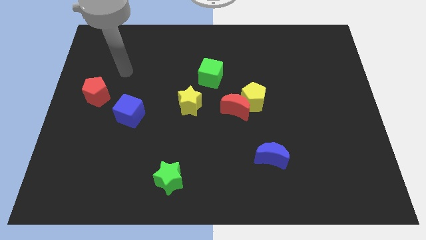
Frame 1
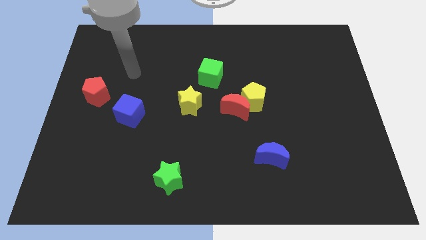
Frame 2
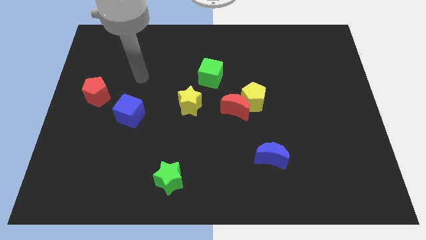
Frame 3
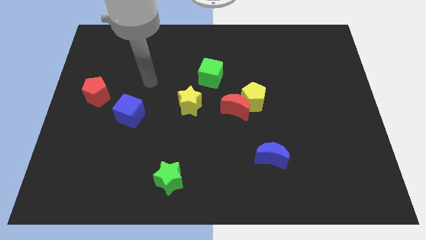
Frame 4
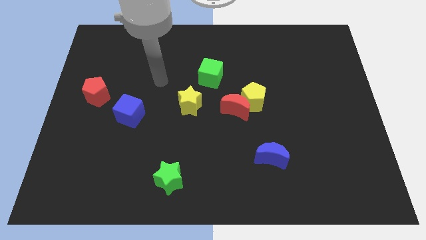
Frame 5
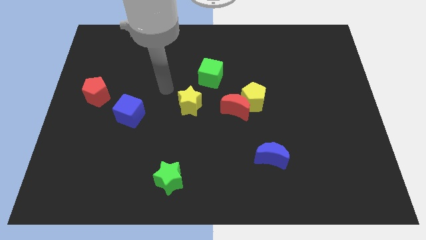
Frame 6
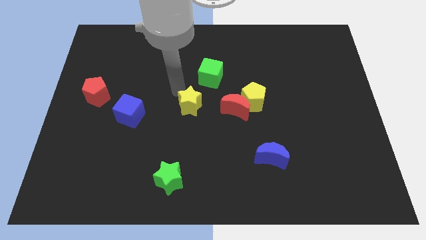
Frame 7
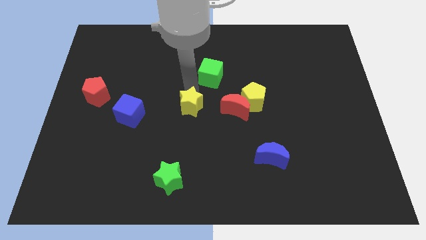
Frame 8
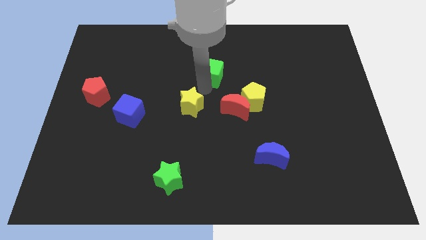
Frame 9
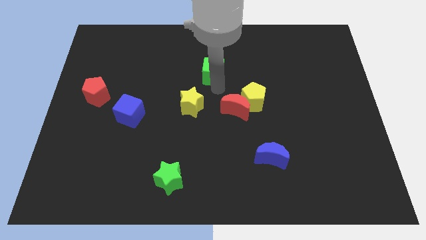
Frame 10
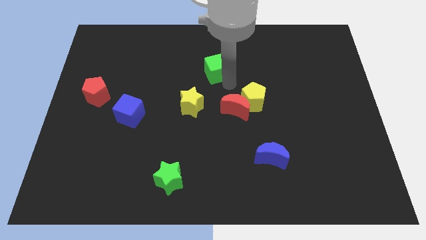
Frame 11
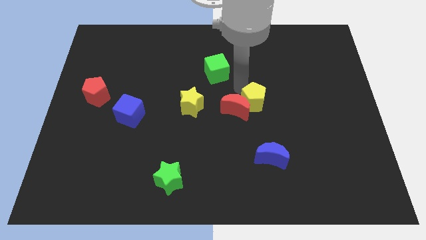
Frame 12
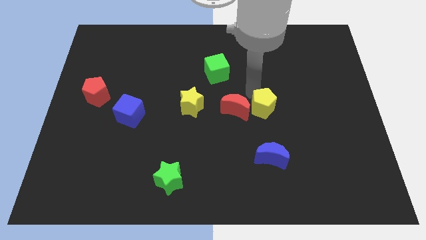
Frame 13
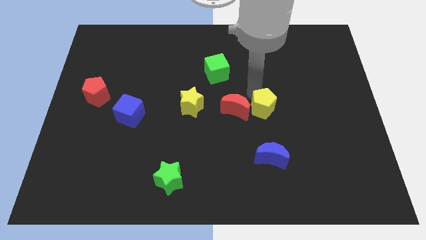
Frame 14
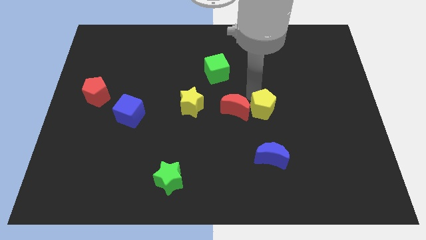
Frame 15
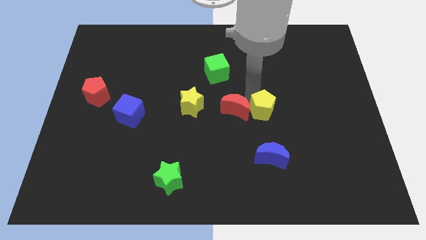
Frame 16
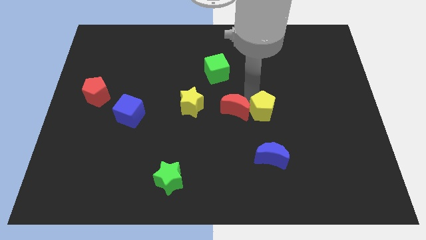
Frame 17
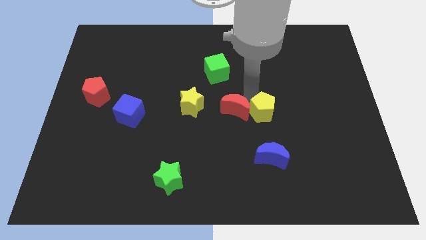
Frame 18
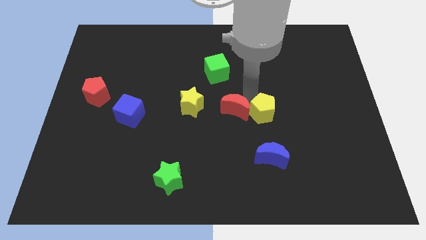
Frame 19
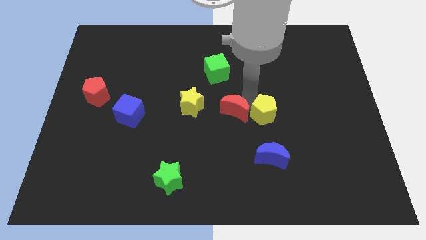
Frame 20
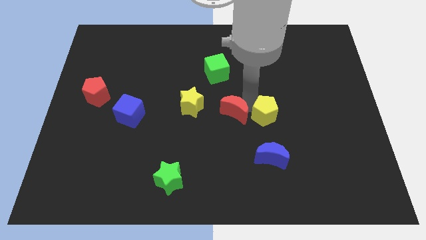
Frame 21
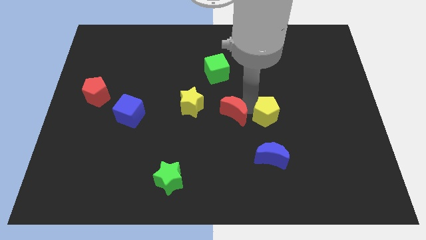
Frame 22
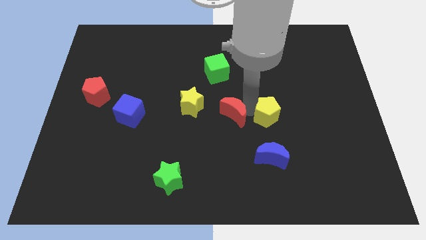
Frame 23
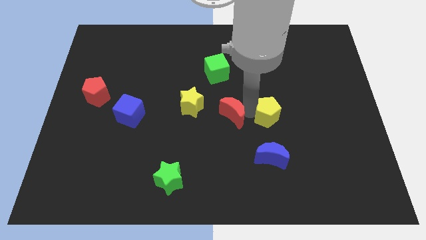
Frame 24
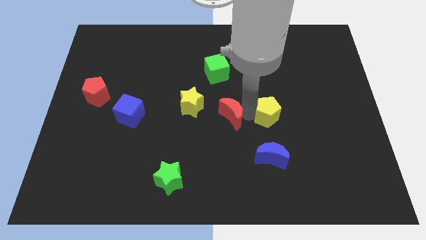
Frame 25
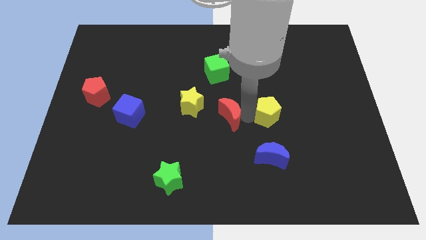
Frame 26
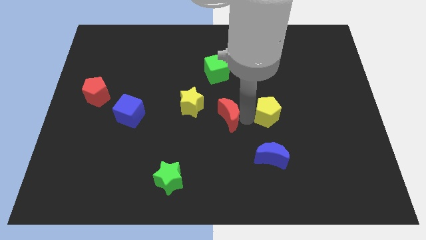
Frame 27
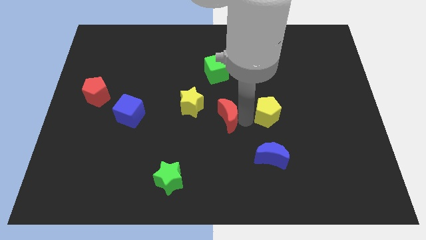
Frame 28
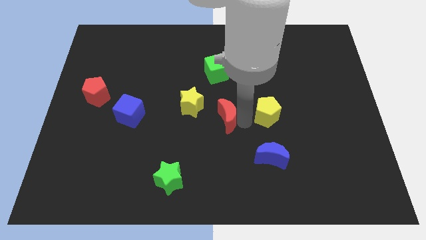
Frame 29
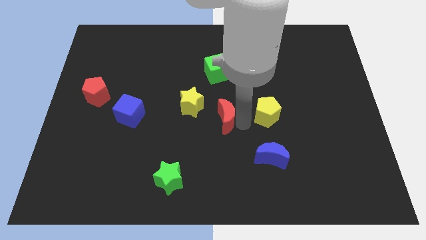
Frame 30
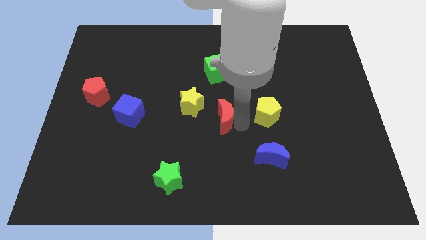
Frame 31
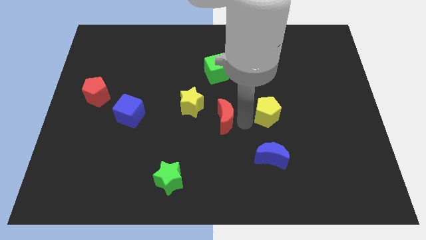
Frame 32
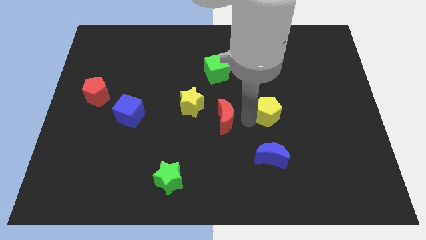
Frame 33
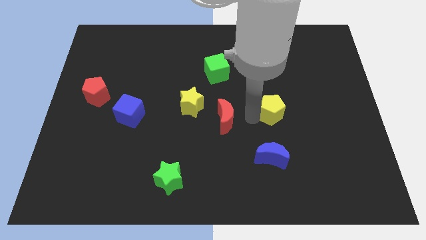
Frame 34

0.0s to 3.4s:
separate the red moon from the yellow pentagon

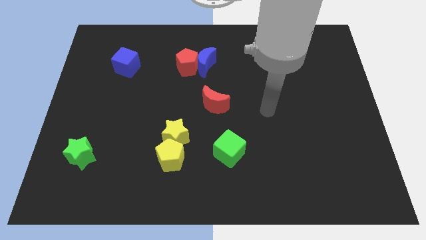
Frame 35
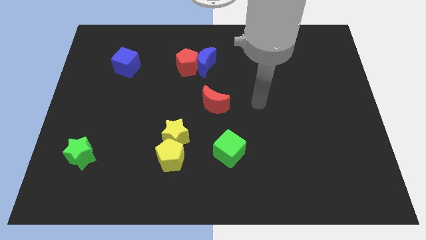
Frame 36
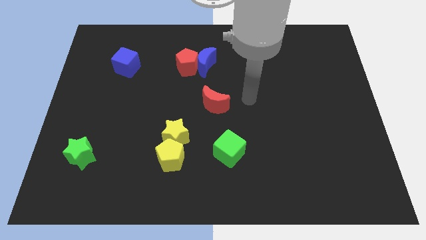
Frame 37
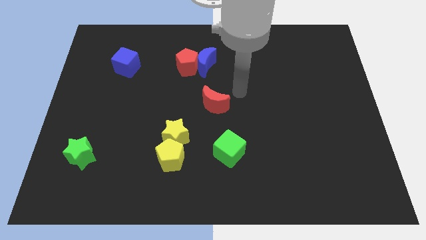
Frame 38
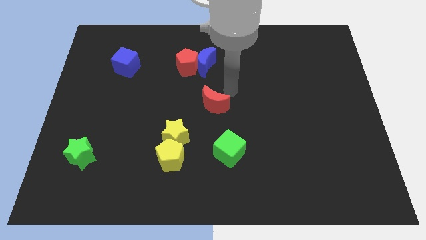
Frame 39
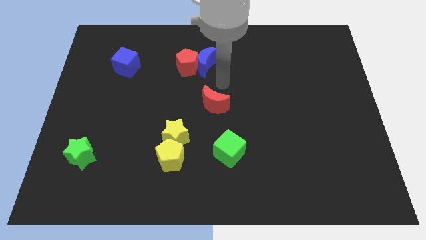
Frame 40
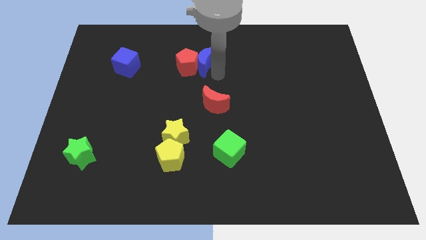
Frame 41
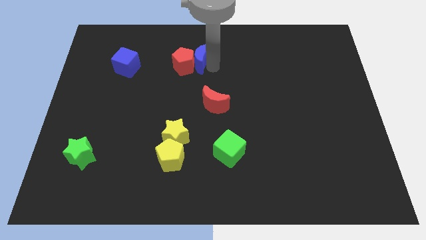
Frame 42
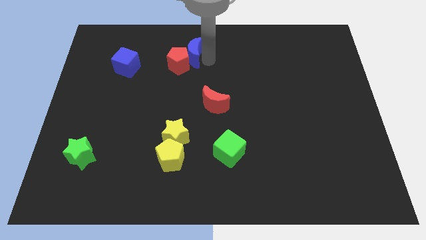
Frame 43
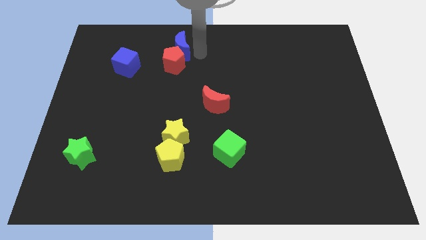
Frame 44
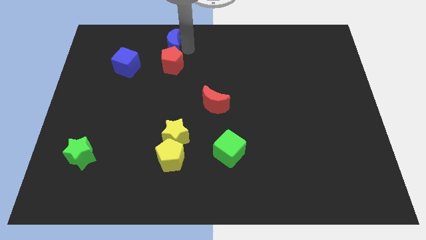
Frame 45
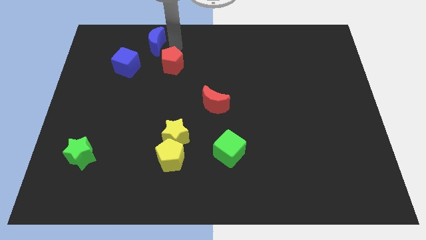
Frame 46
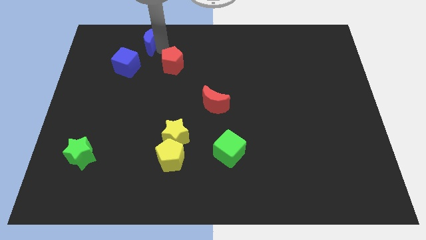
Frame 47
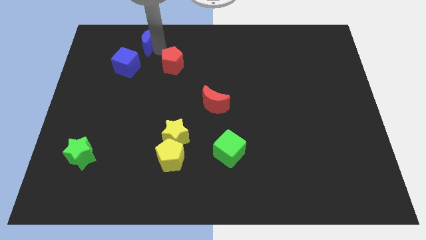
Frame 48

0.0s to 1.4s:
move the red pentagon away from the blue moon

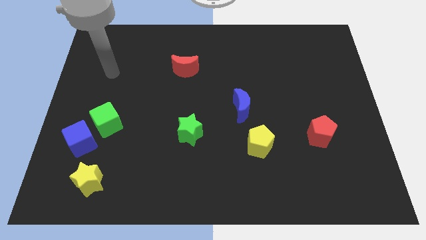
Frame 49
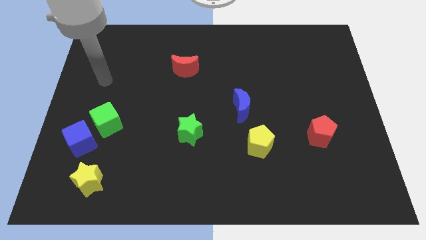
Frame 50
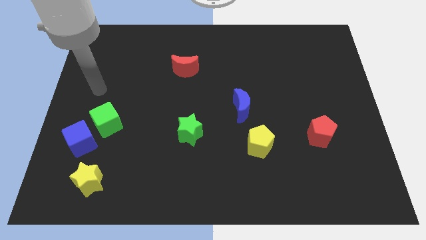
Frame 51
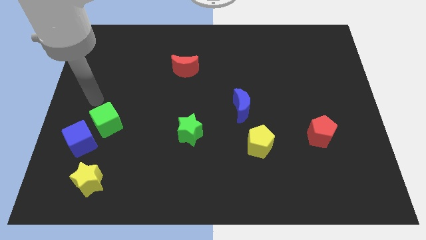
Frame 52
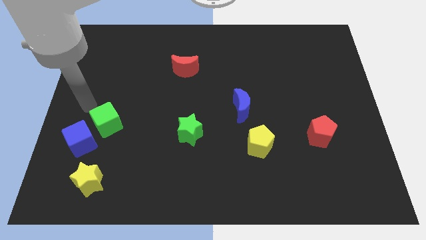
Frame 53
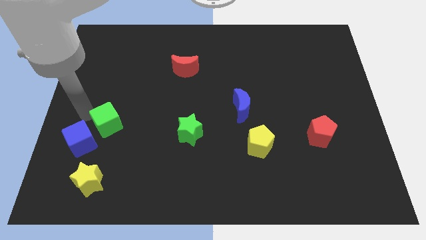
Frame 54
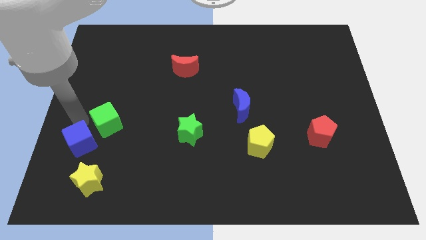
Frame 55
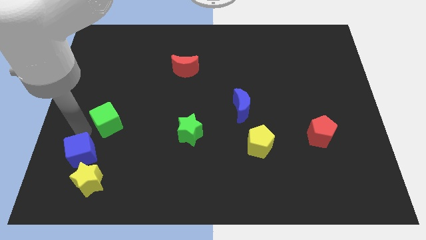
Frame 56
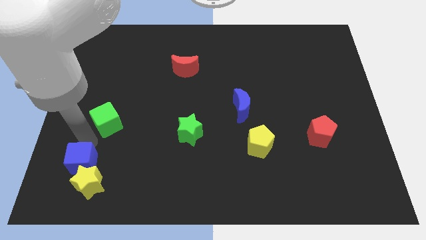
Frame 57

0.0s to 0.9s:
pull the green cube apart from the blue cube

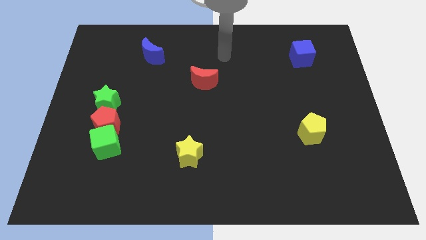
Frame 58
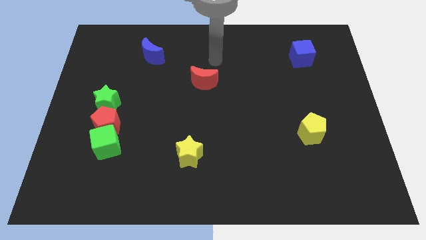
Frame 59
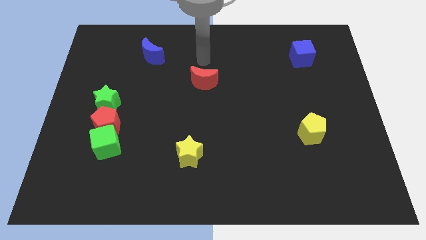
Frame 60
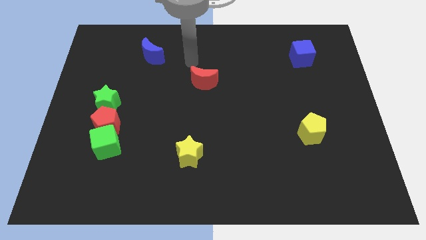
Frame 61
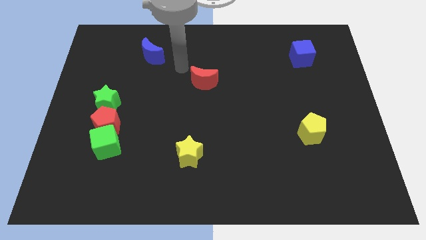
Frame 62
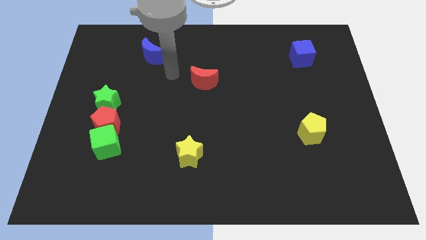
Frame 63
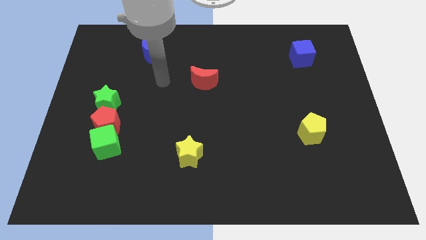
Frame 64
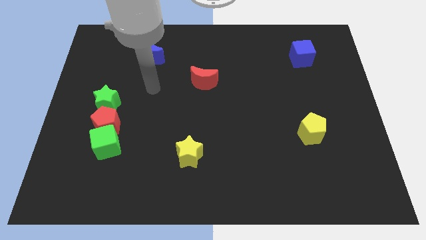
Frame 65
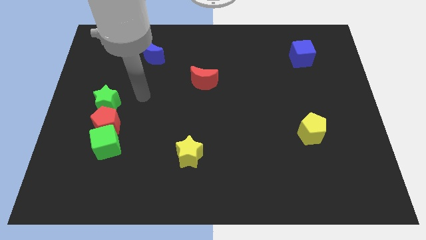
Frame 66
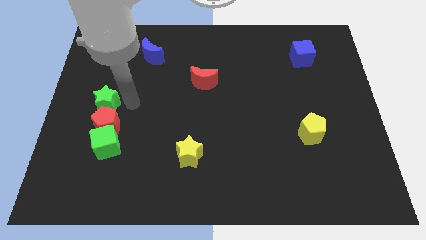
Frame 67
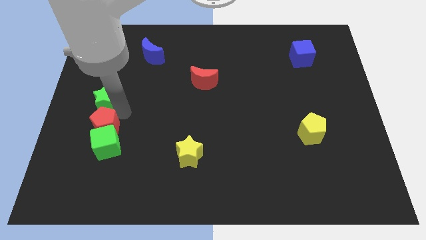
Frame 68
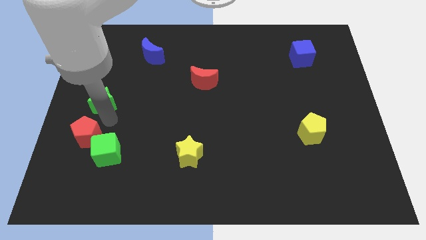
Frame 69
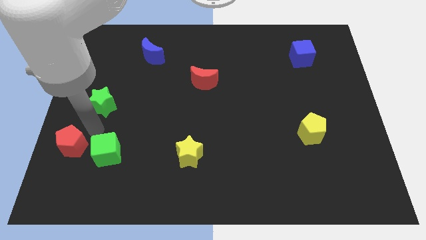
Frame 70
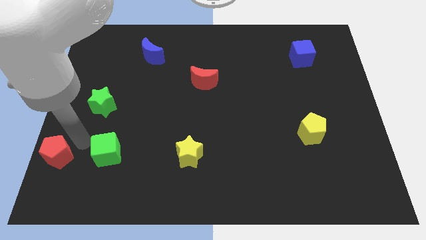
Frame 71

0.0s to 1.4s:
pull the green cube apart from the red pentagon

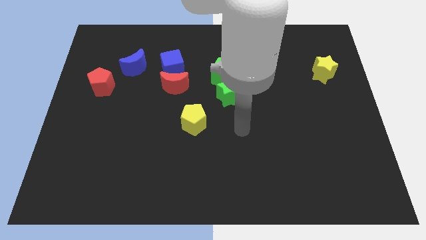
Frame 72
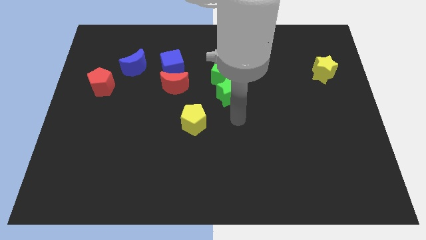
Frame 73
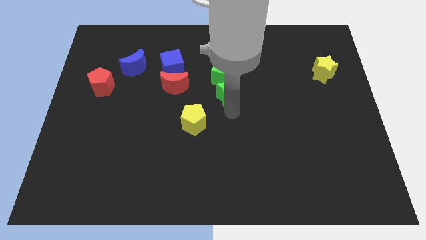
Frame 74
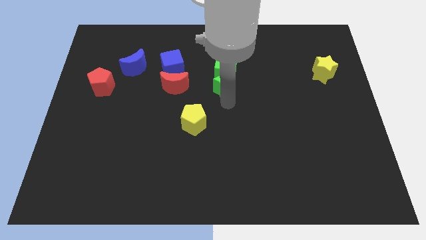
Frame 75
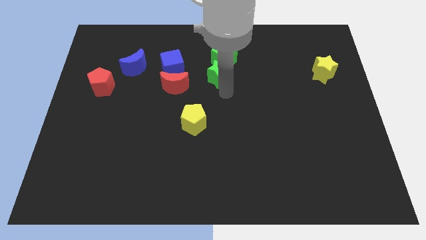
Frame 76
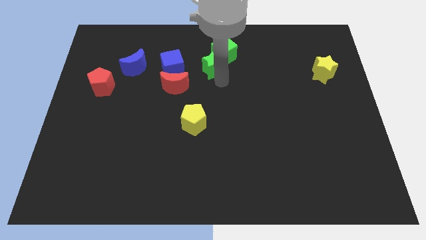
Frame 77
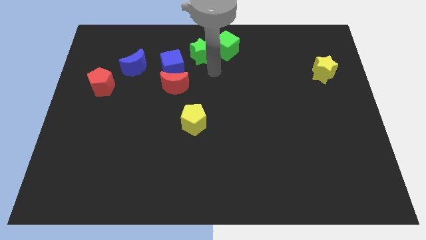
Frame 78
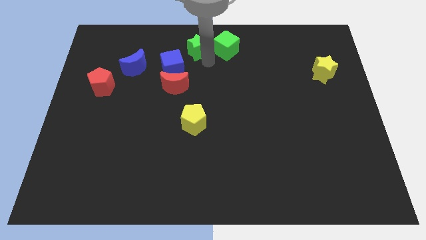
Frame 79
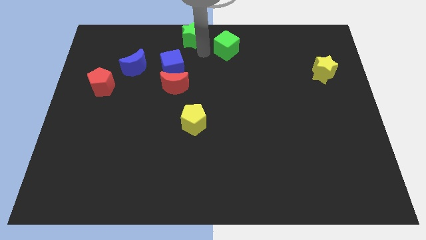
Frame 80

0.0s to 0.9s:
pull the green cube apart from the green star

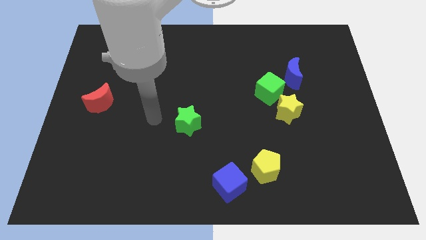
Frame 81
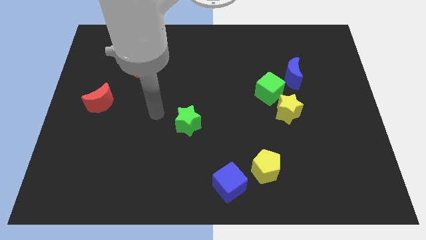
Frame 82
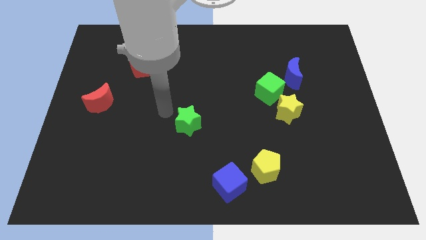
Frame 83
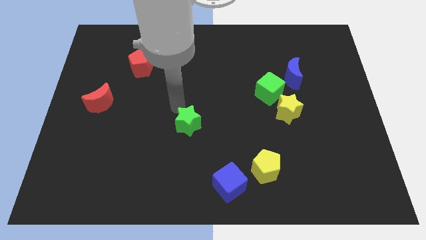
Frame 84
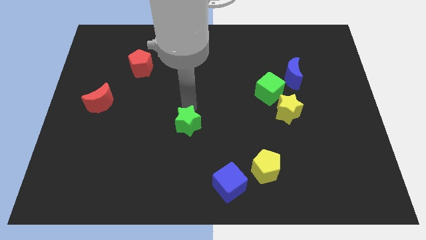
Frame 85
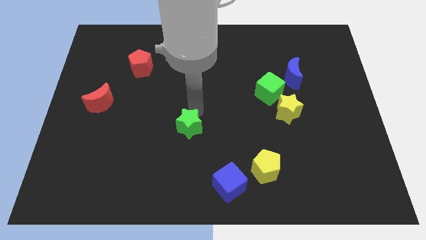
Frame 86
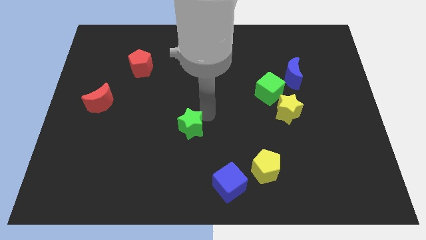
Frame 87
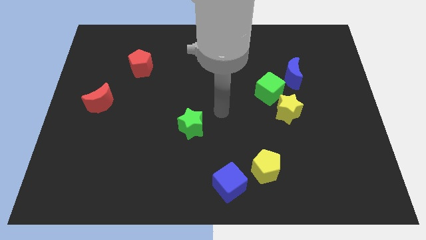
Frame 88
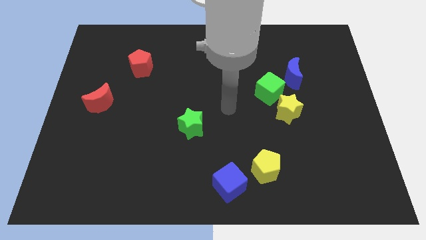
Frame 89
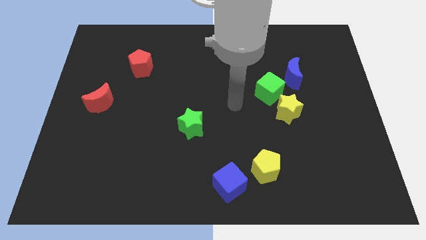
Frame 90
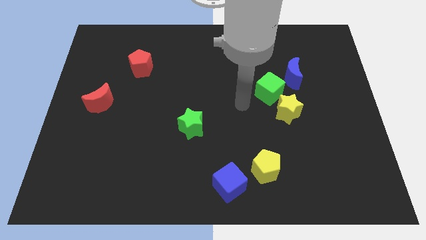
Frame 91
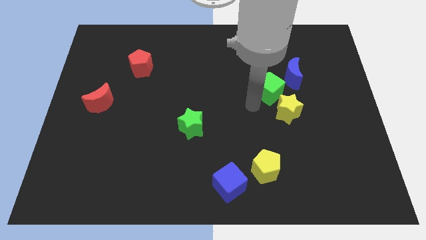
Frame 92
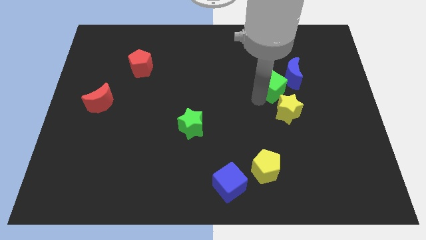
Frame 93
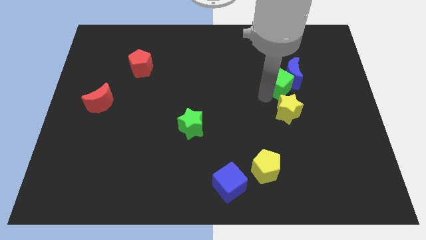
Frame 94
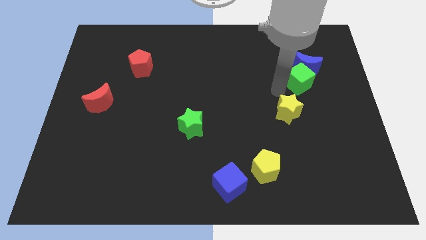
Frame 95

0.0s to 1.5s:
move the yellow star away from the green cube
